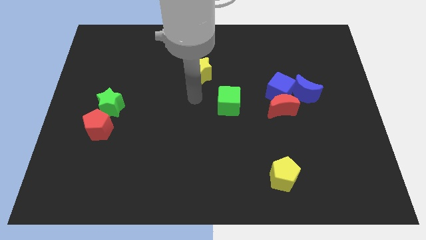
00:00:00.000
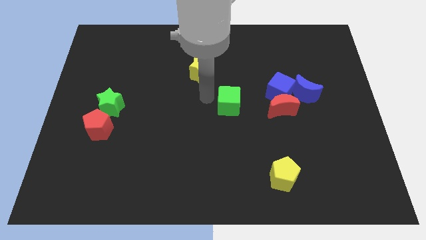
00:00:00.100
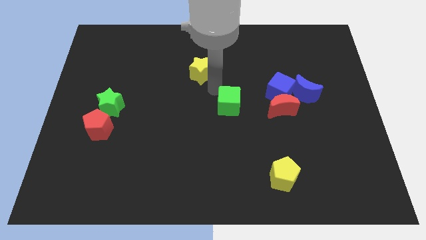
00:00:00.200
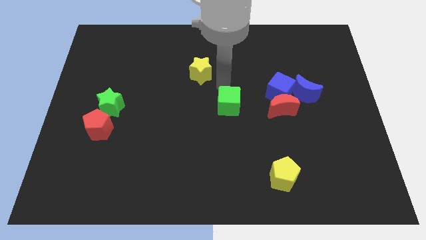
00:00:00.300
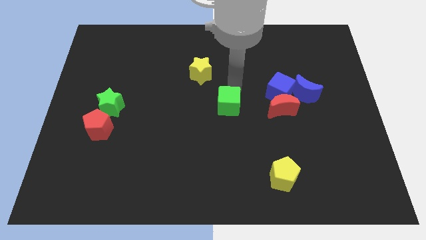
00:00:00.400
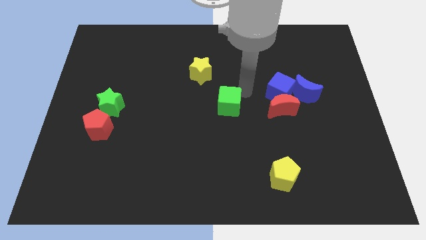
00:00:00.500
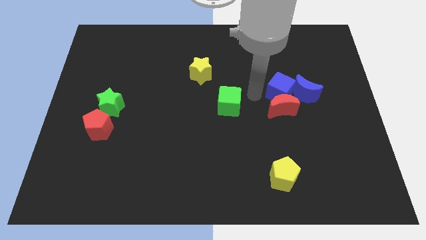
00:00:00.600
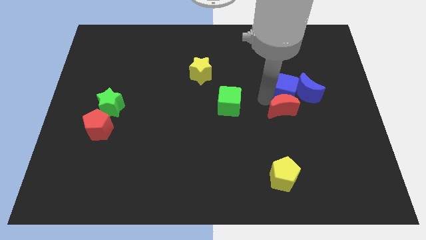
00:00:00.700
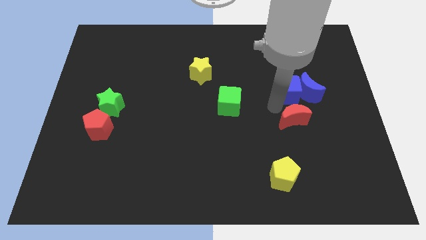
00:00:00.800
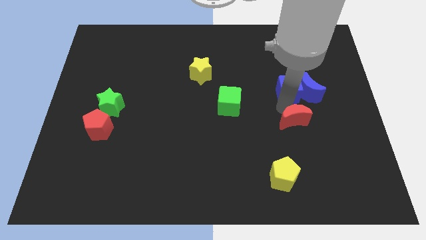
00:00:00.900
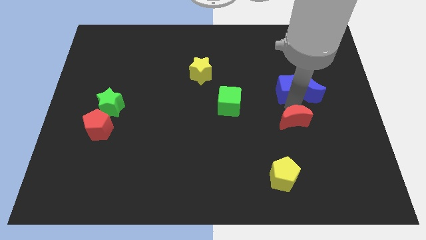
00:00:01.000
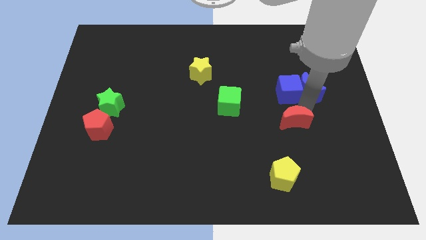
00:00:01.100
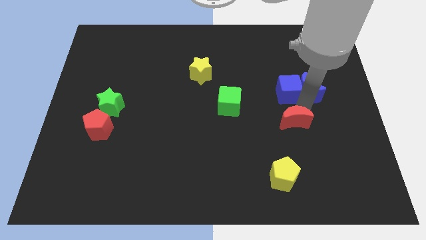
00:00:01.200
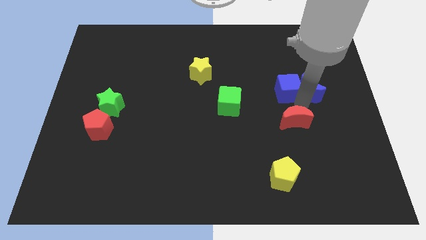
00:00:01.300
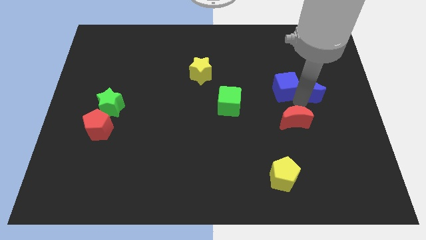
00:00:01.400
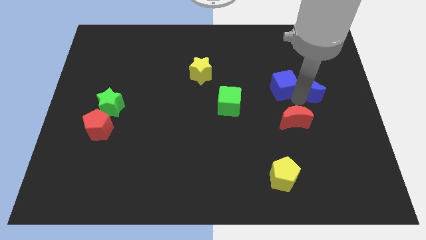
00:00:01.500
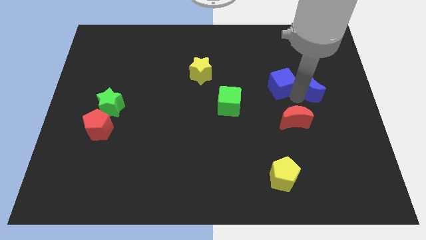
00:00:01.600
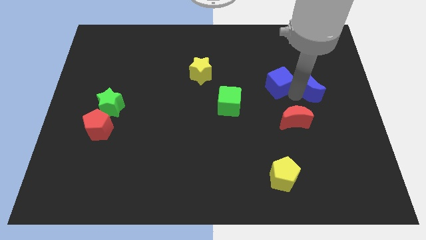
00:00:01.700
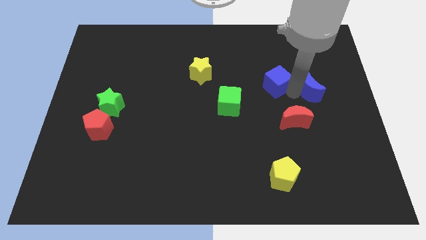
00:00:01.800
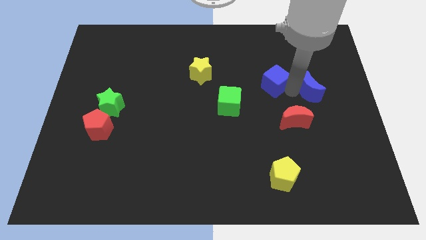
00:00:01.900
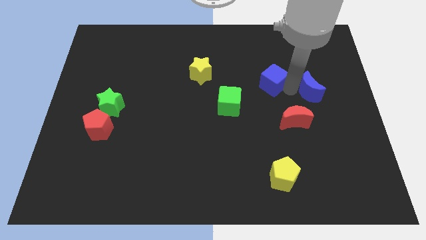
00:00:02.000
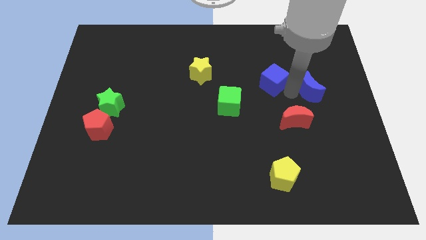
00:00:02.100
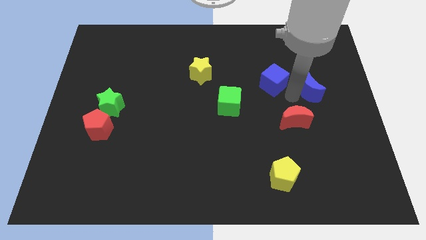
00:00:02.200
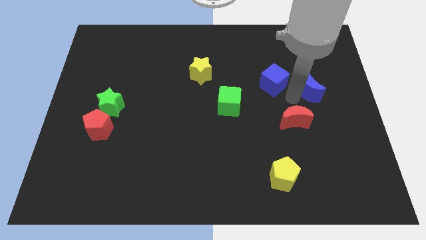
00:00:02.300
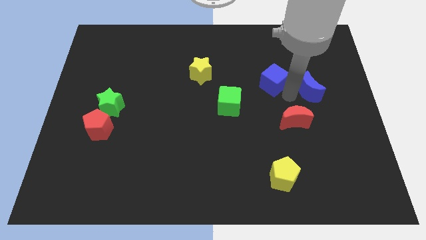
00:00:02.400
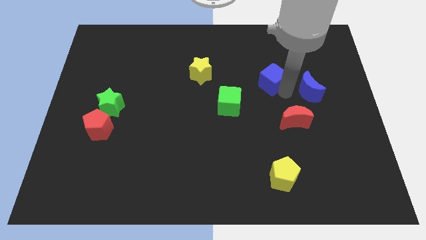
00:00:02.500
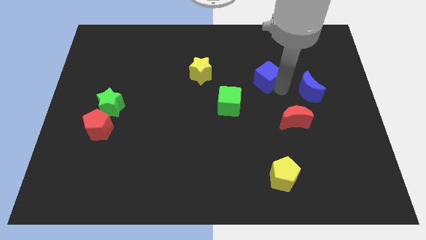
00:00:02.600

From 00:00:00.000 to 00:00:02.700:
pull the blue cube apart from the red moon and blue moon

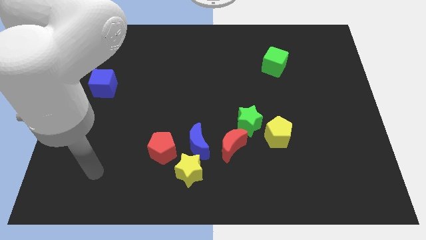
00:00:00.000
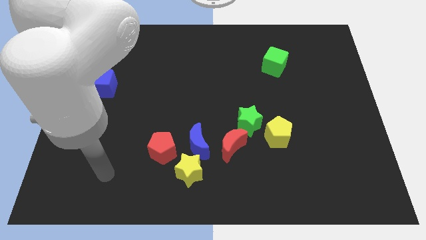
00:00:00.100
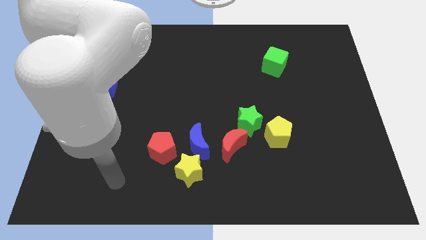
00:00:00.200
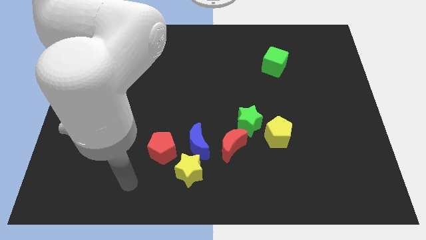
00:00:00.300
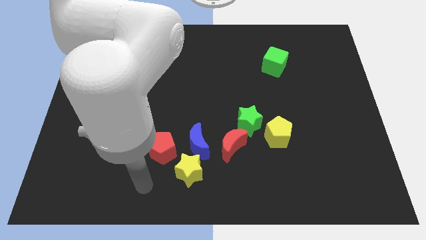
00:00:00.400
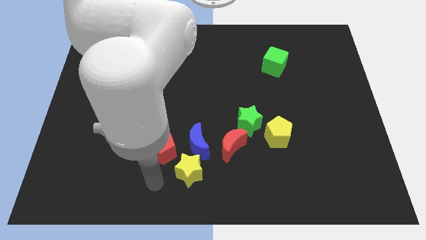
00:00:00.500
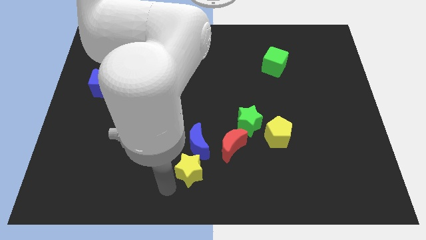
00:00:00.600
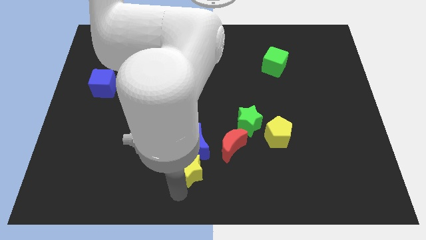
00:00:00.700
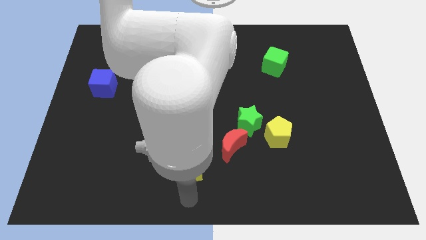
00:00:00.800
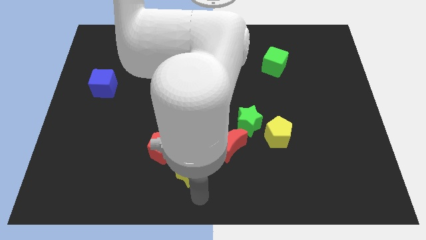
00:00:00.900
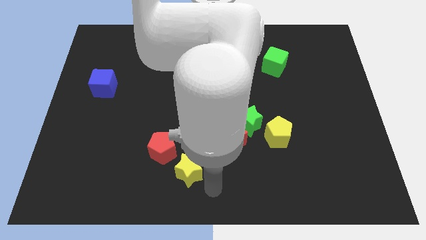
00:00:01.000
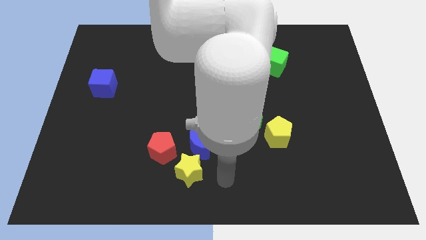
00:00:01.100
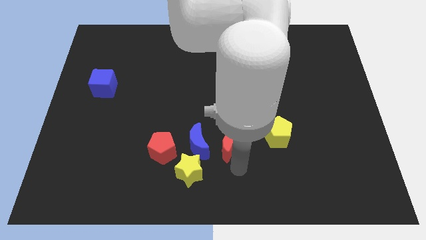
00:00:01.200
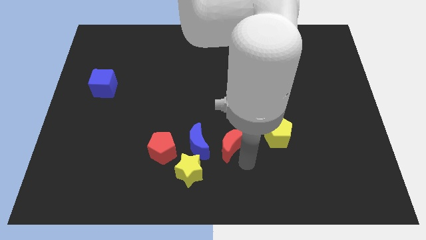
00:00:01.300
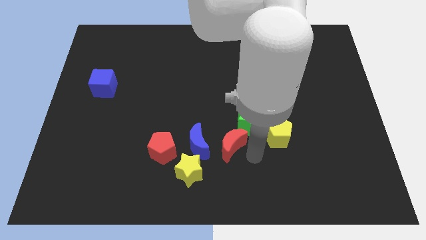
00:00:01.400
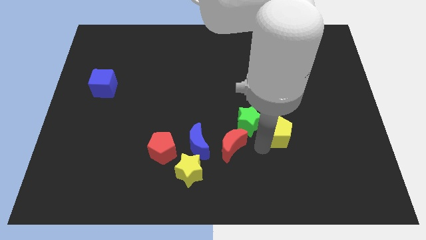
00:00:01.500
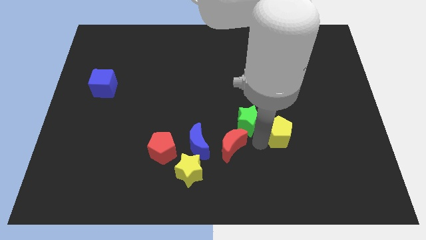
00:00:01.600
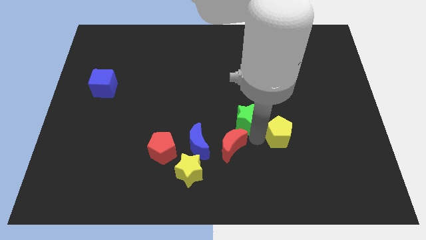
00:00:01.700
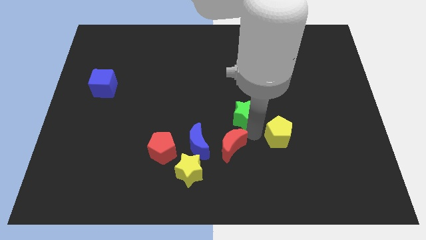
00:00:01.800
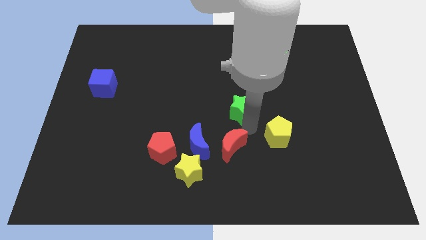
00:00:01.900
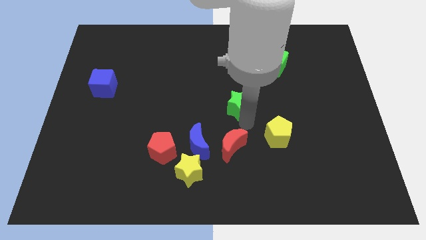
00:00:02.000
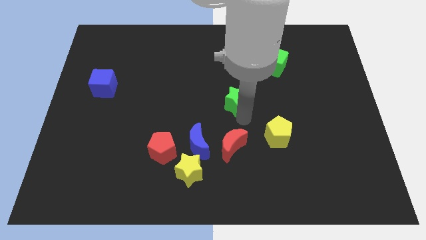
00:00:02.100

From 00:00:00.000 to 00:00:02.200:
move the green star away from the red moon and yellow pentagon

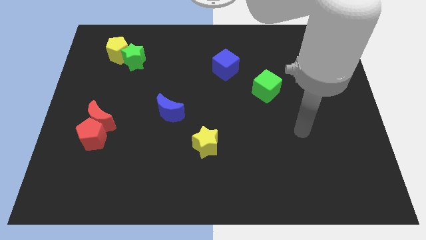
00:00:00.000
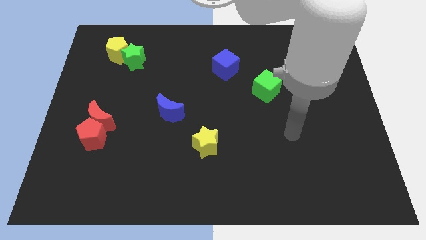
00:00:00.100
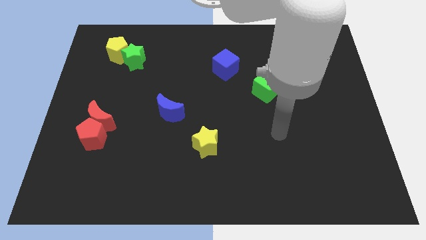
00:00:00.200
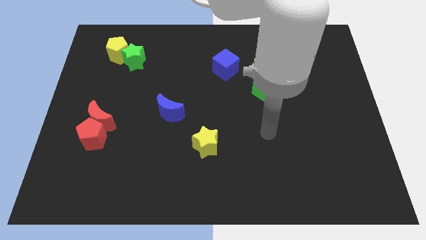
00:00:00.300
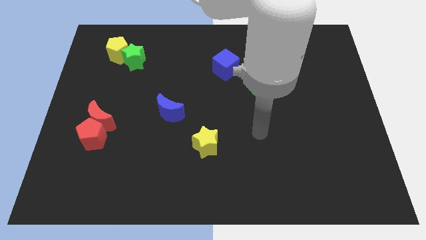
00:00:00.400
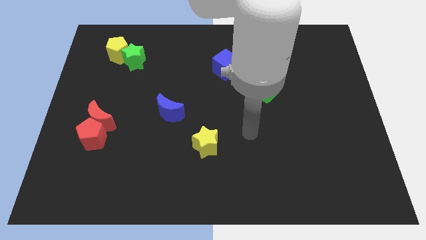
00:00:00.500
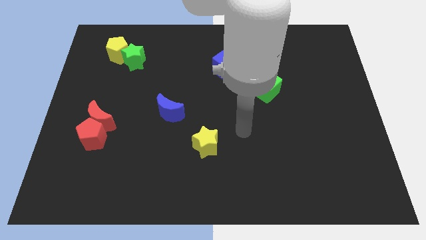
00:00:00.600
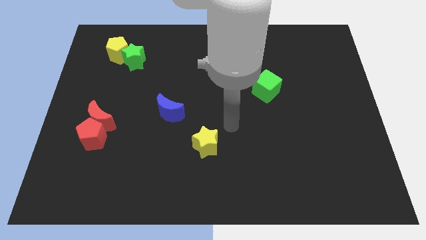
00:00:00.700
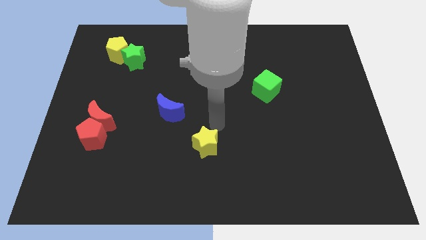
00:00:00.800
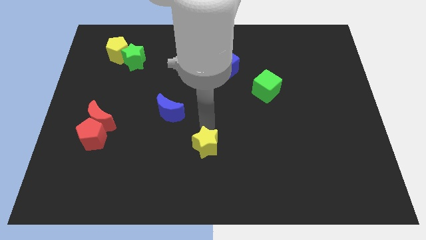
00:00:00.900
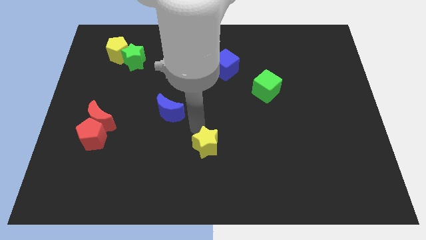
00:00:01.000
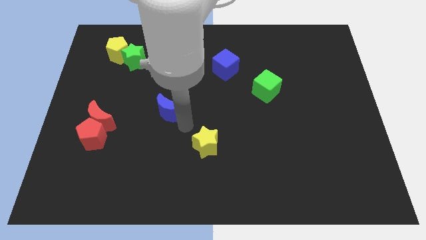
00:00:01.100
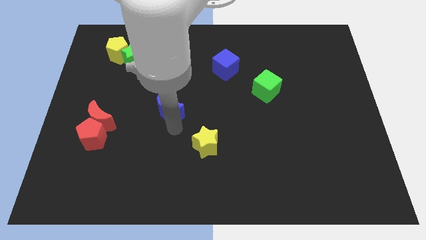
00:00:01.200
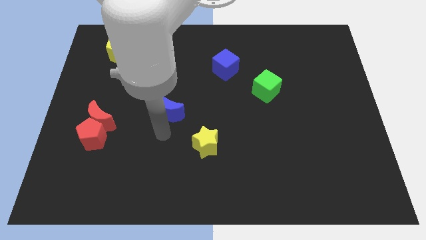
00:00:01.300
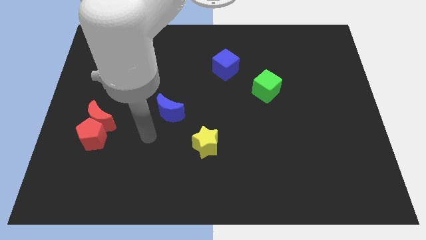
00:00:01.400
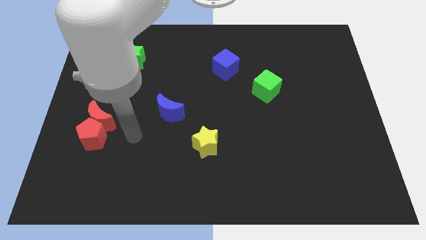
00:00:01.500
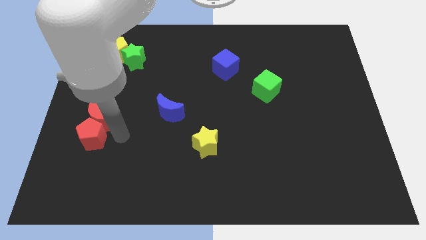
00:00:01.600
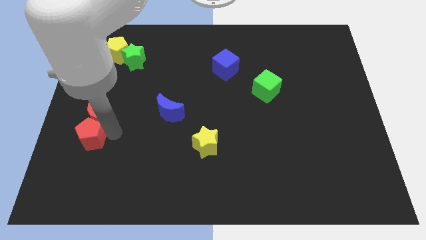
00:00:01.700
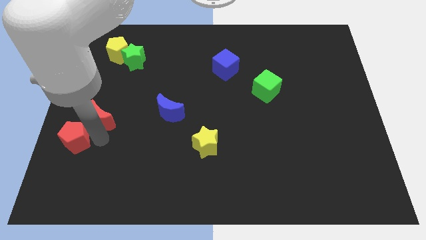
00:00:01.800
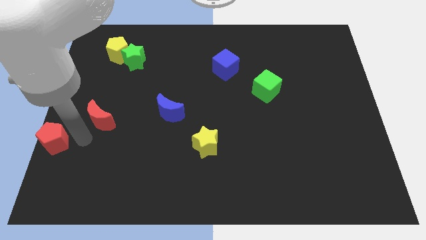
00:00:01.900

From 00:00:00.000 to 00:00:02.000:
pull the red moon apart from the red pentagon

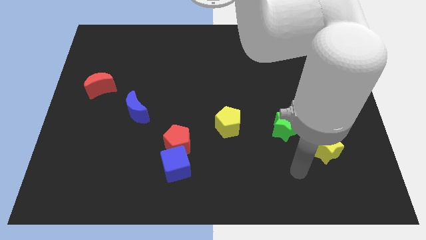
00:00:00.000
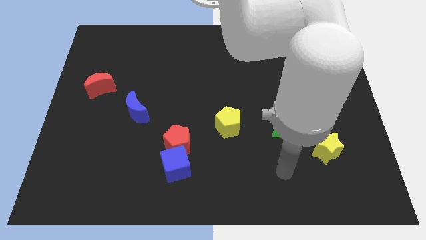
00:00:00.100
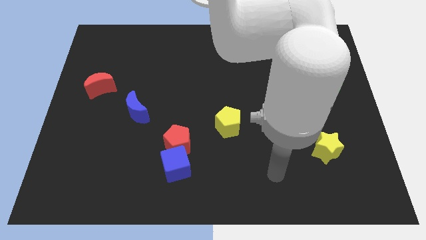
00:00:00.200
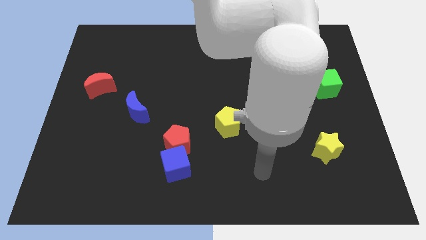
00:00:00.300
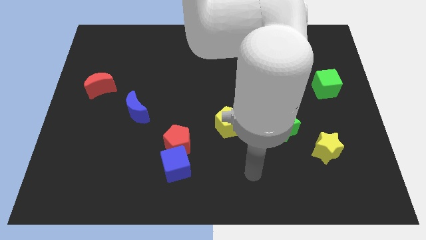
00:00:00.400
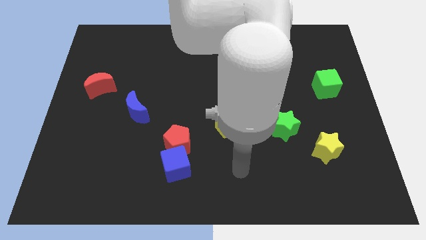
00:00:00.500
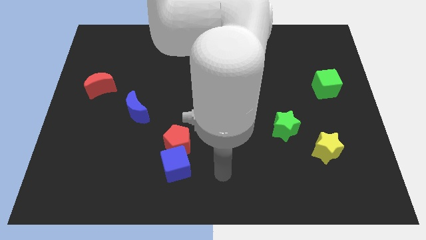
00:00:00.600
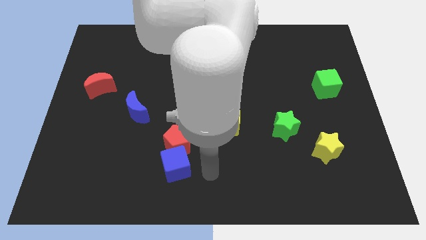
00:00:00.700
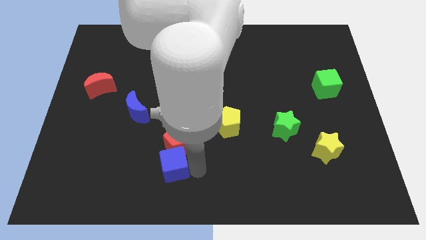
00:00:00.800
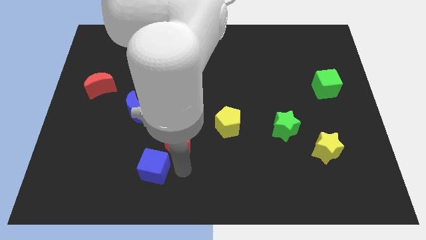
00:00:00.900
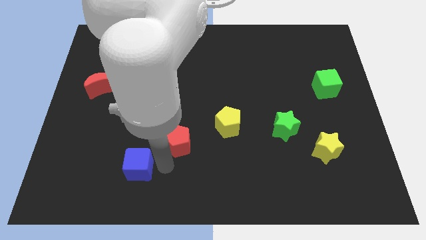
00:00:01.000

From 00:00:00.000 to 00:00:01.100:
separate the red pentagon from the blue cube

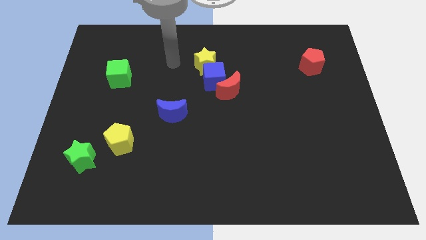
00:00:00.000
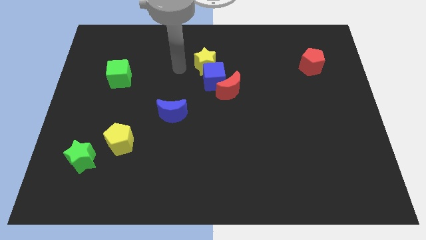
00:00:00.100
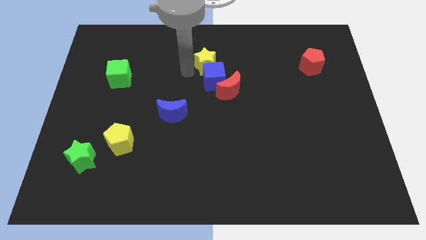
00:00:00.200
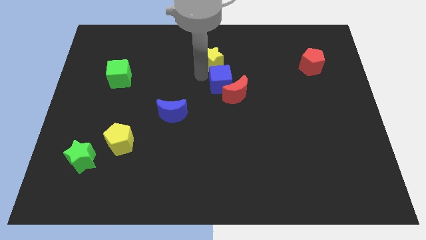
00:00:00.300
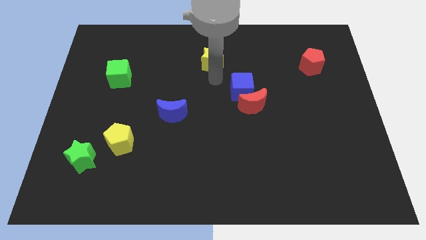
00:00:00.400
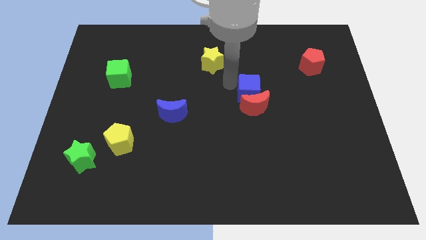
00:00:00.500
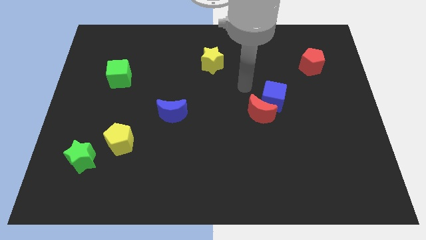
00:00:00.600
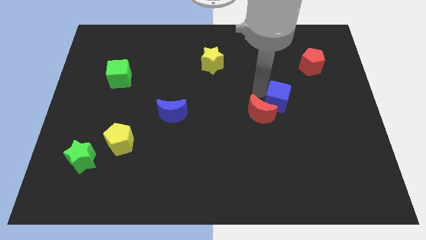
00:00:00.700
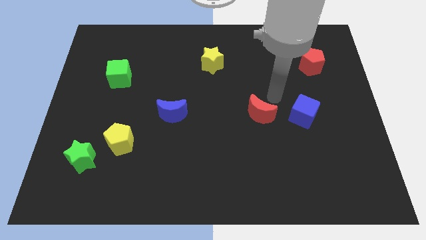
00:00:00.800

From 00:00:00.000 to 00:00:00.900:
pull the red moon apart from the blue cube

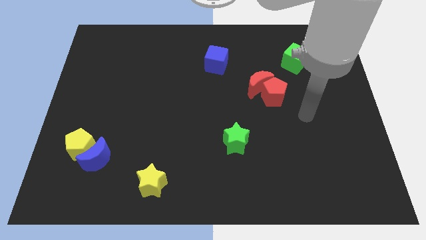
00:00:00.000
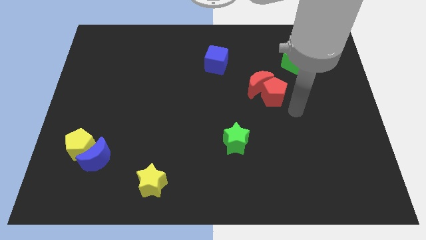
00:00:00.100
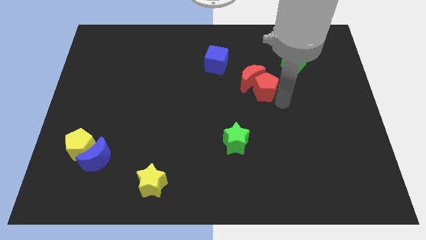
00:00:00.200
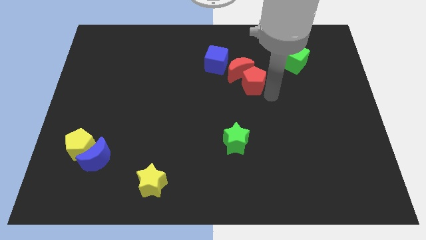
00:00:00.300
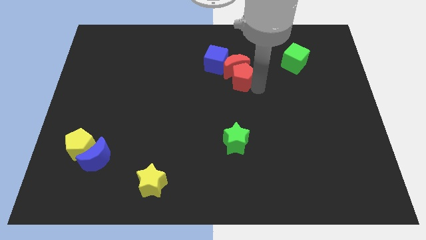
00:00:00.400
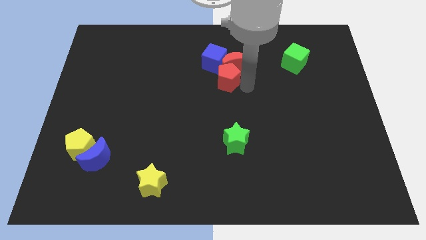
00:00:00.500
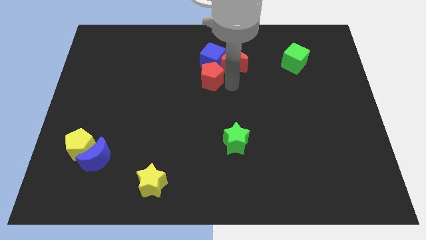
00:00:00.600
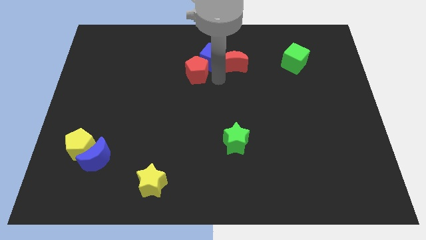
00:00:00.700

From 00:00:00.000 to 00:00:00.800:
separate the red moon from the red pentagon
